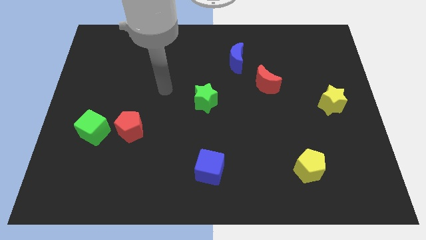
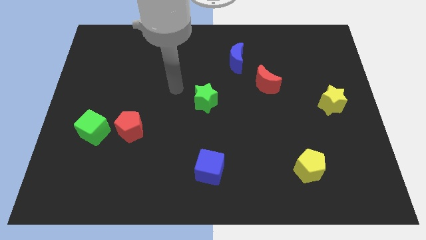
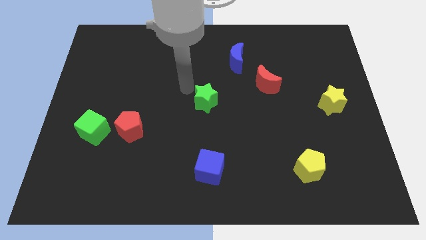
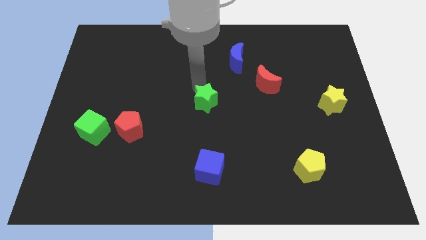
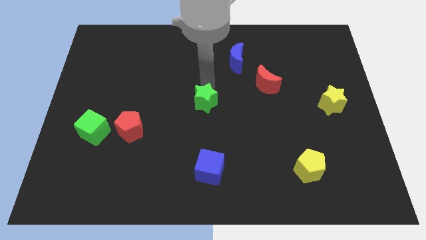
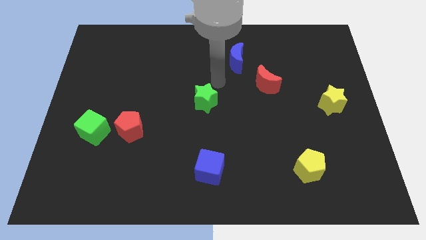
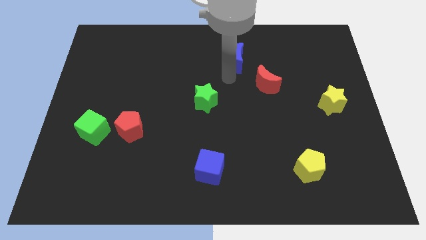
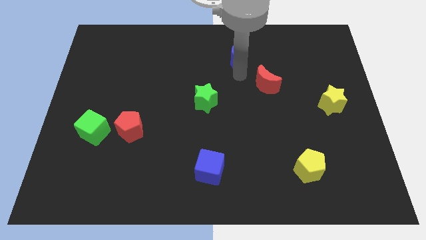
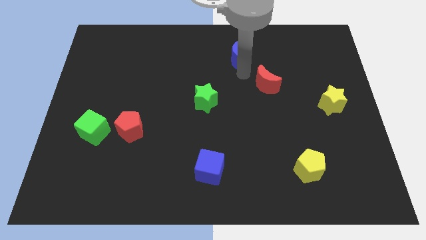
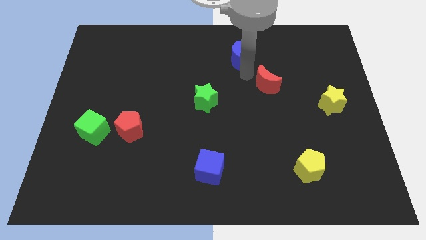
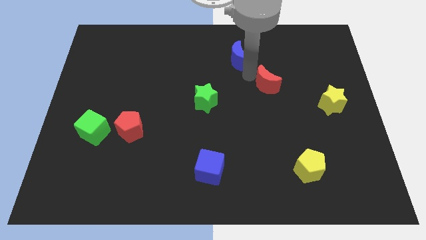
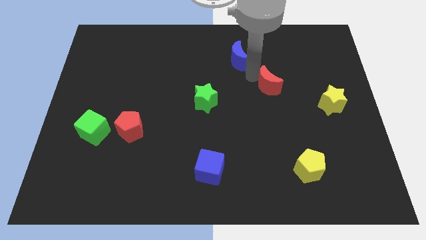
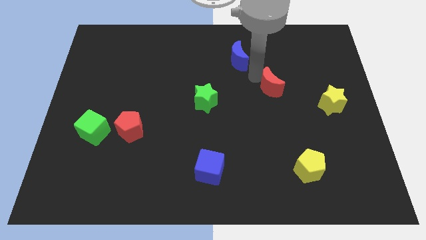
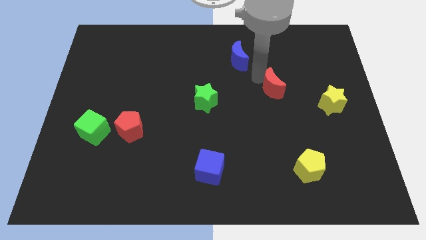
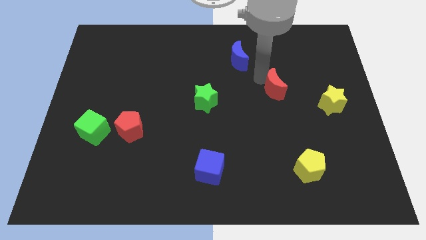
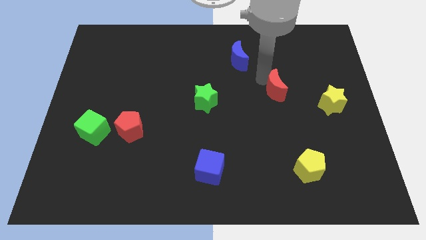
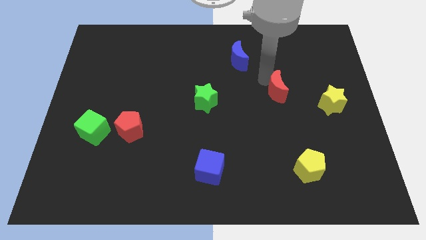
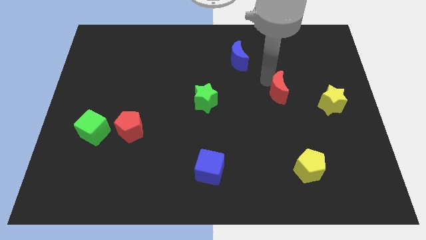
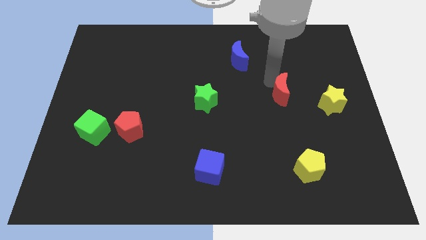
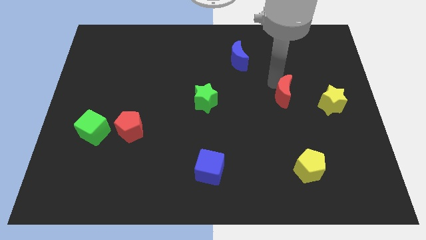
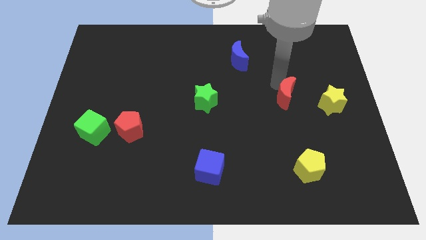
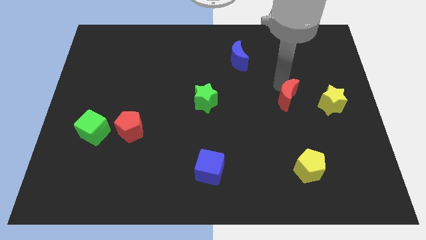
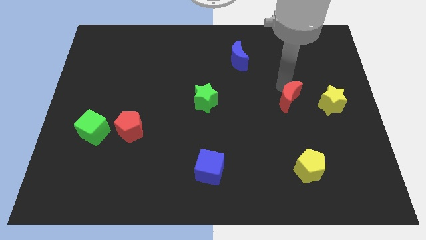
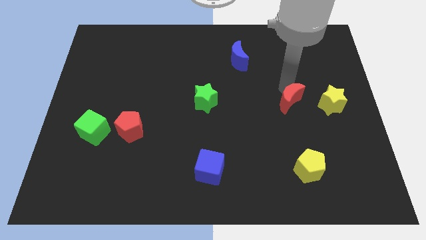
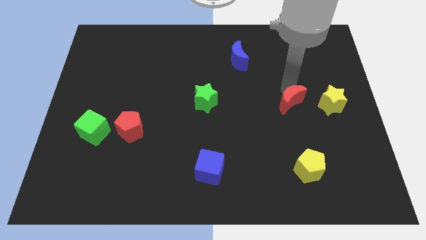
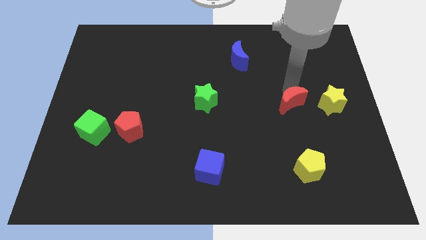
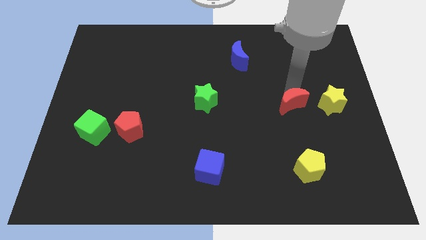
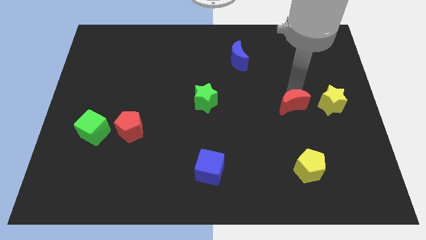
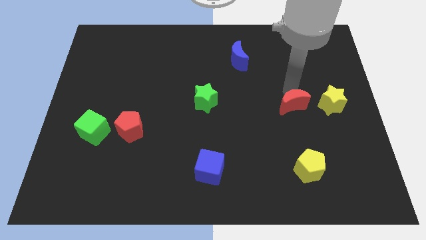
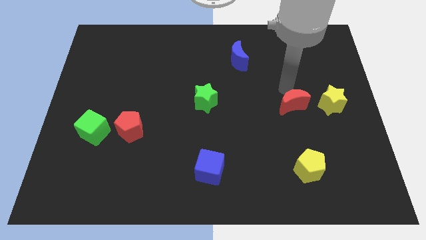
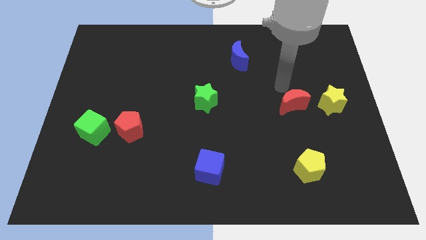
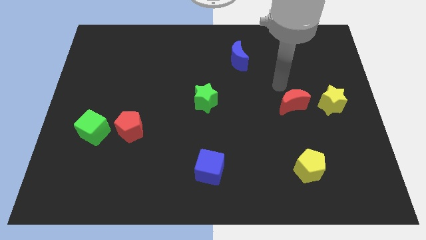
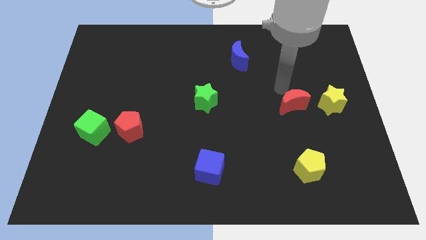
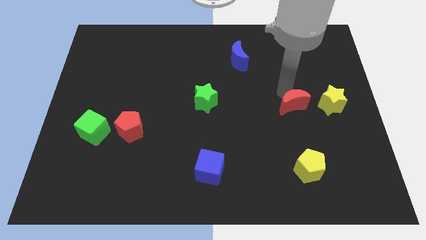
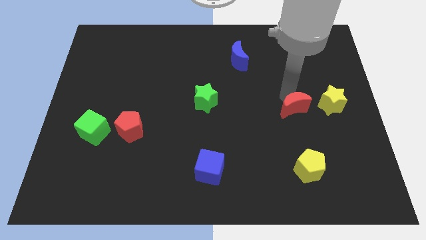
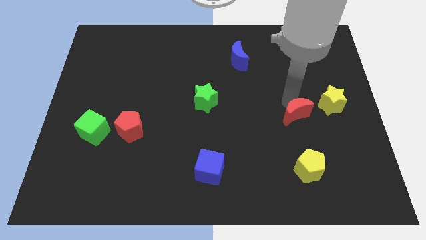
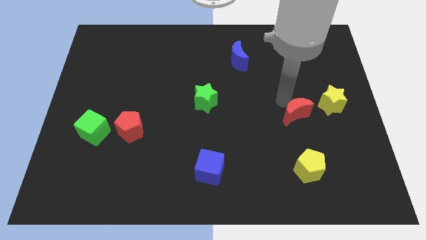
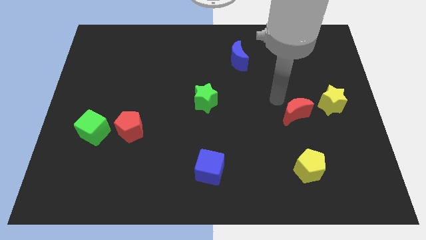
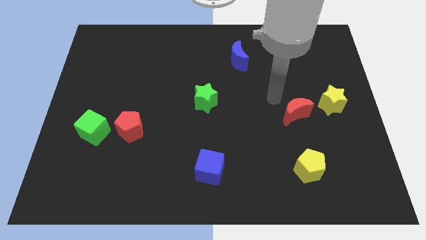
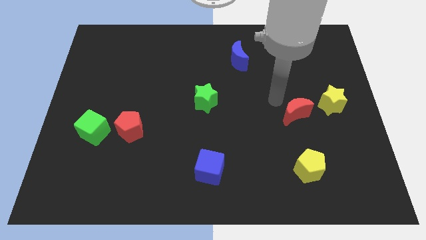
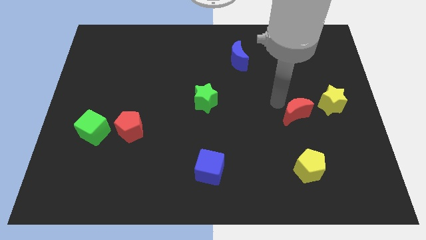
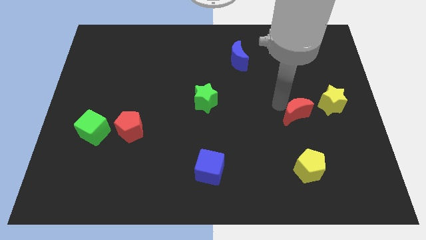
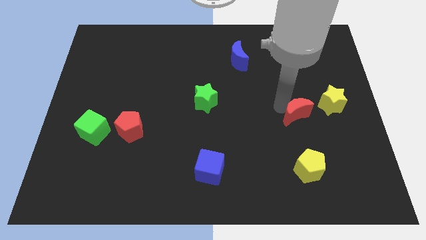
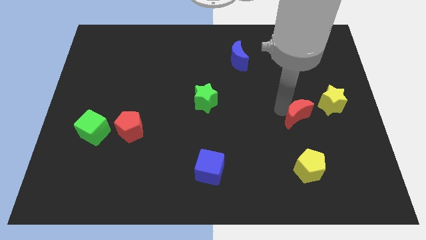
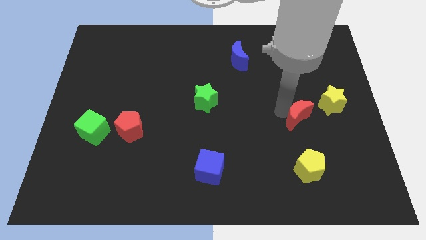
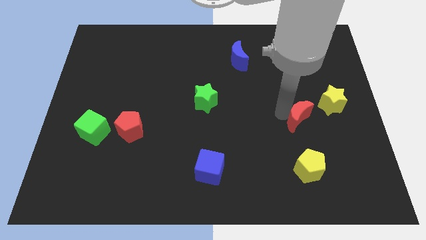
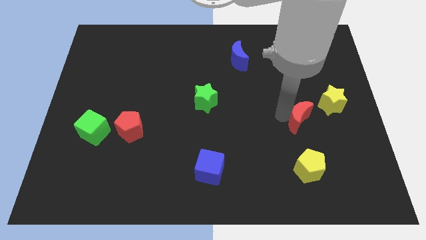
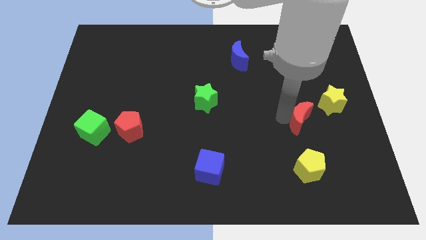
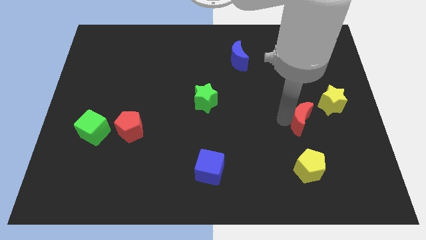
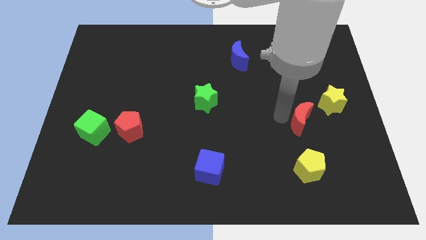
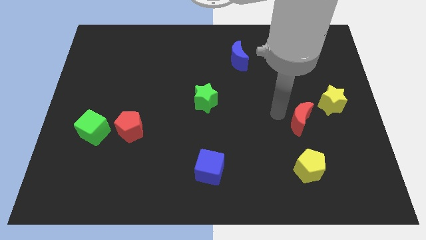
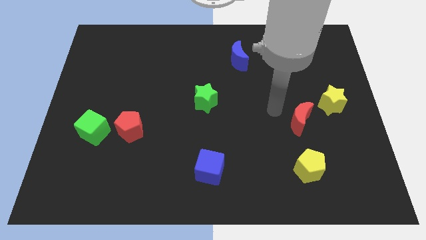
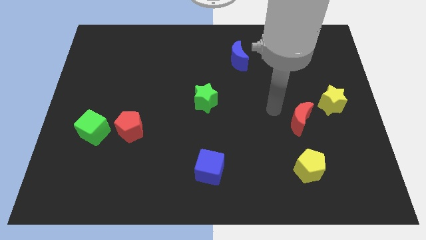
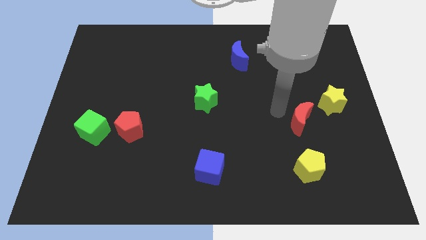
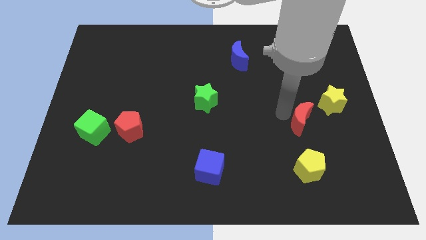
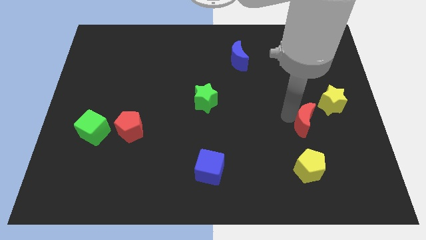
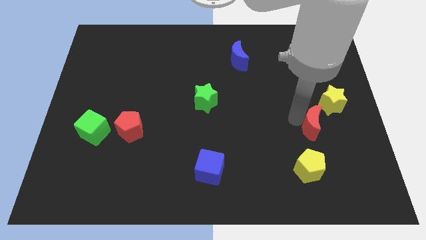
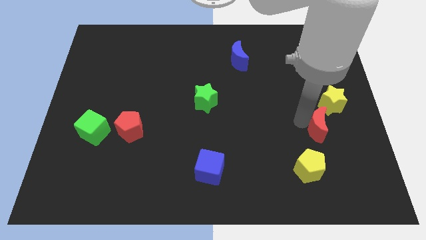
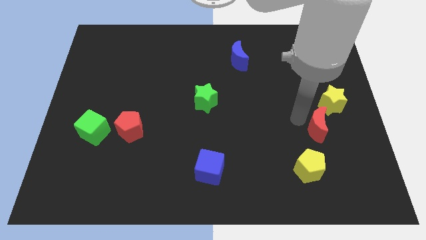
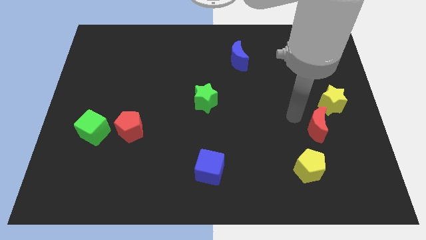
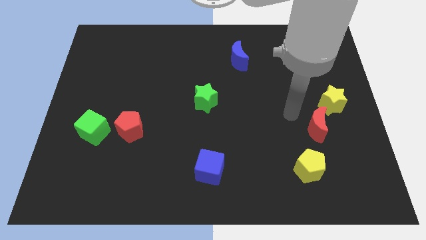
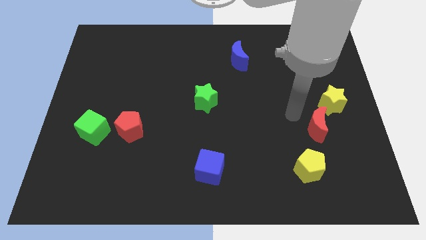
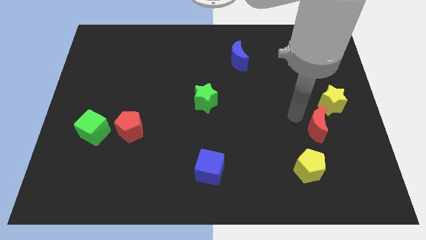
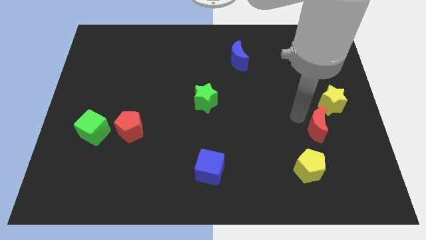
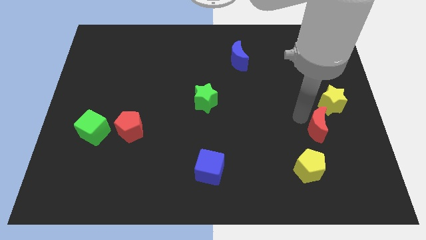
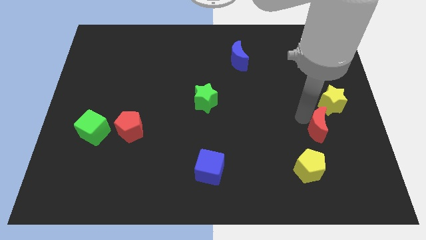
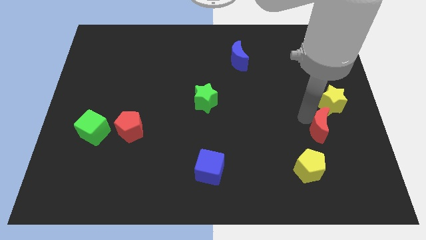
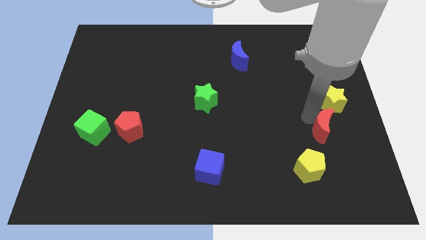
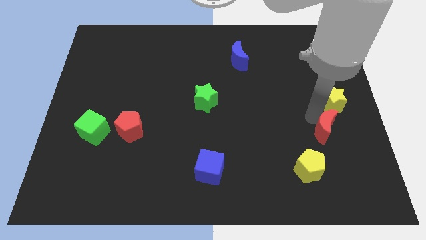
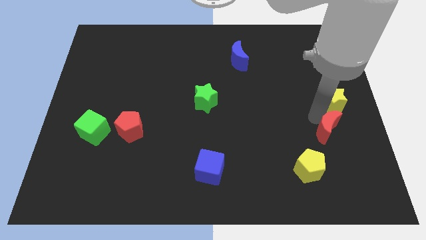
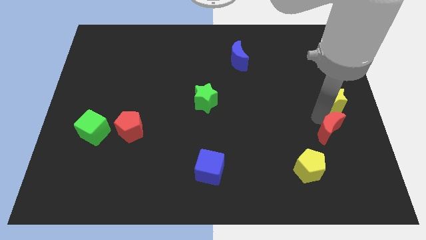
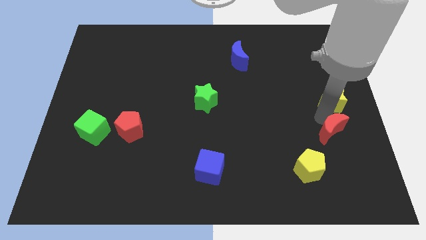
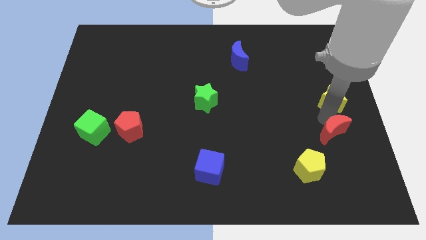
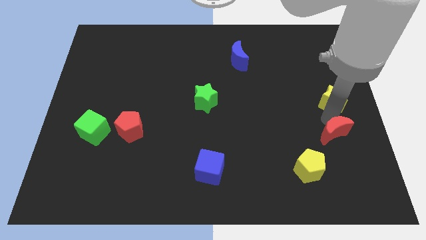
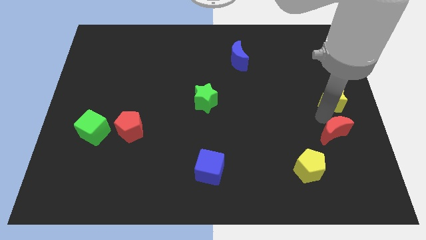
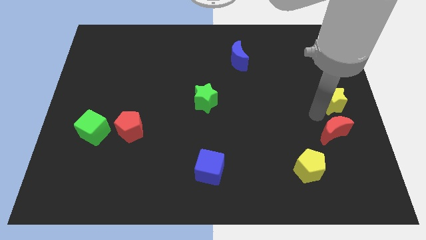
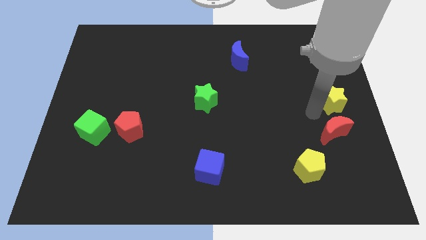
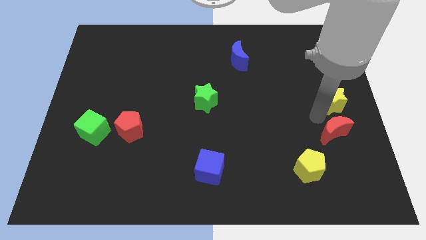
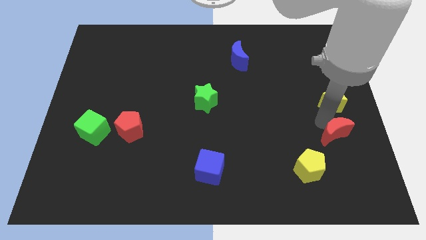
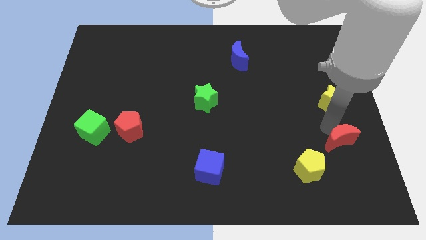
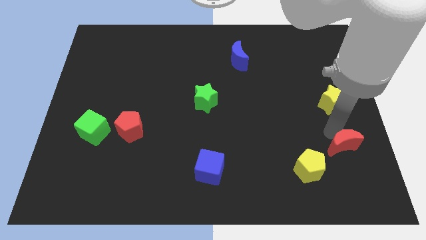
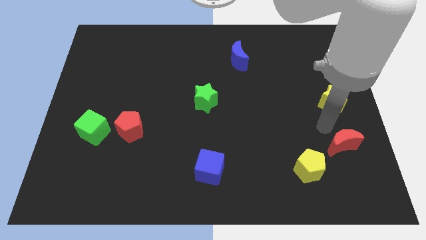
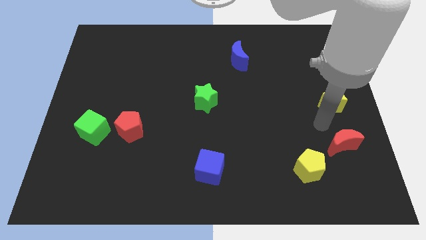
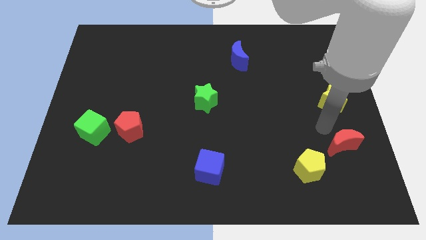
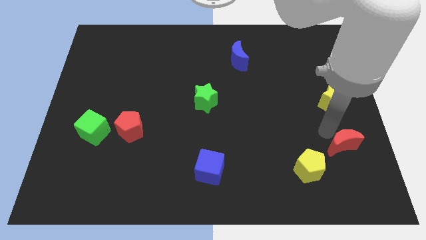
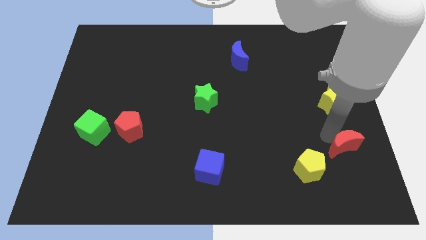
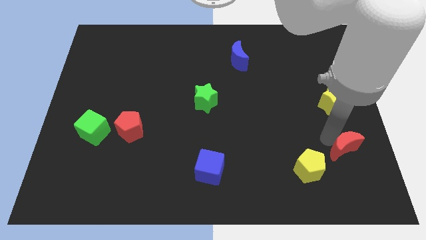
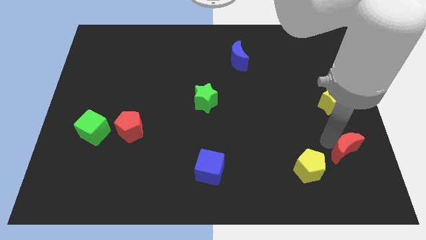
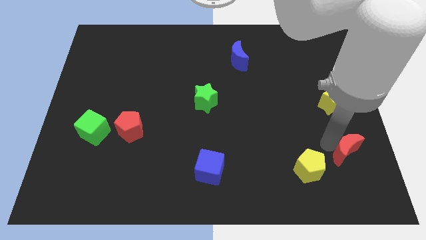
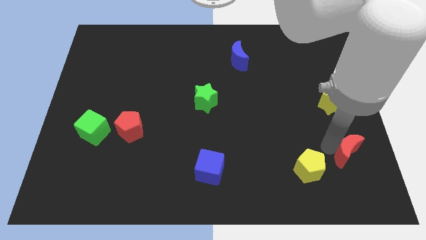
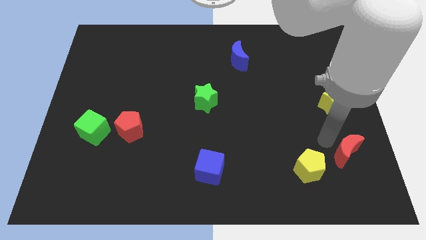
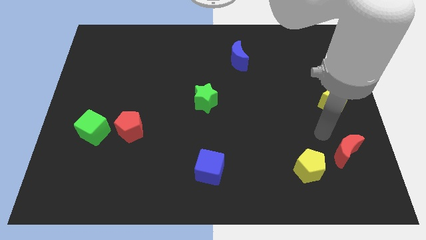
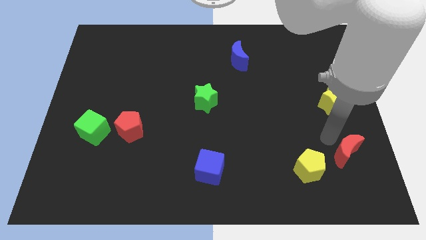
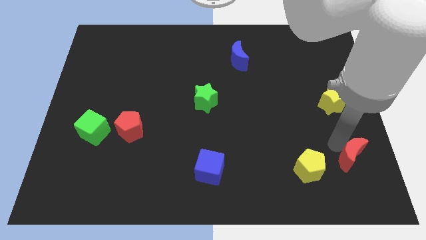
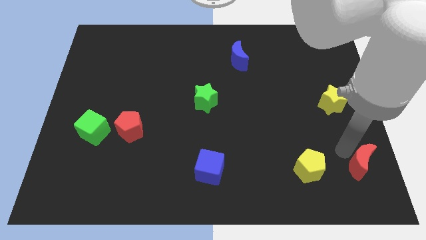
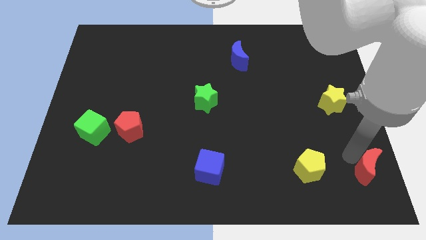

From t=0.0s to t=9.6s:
put the red moon to the bottom right of the board
